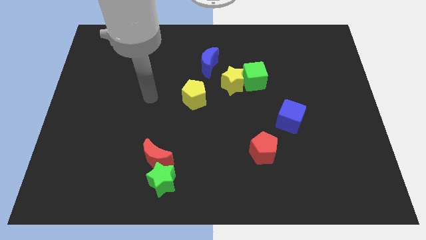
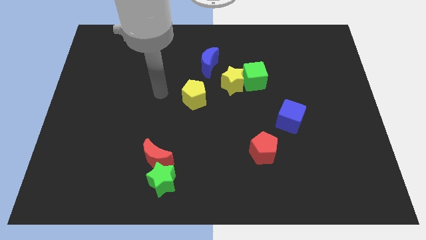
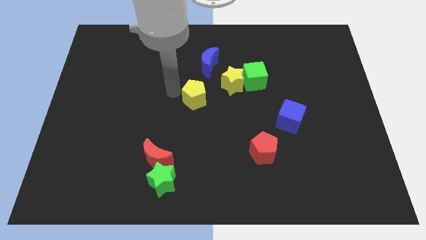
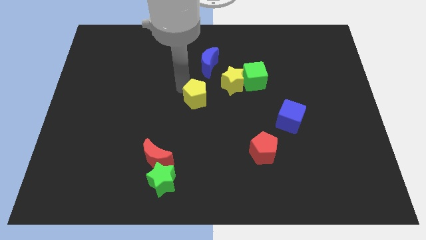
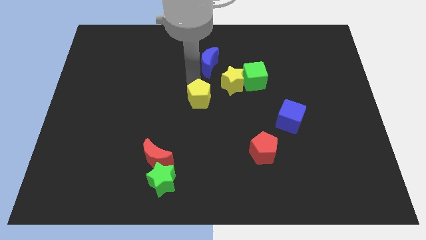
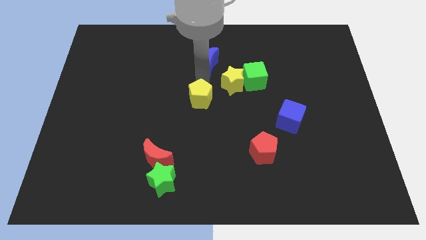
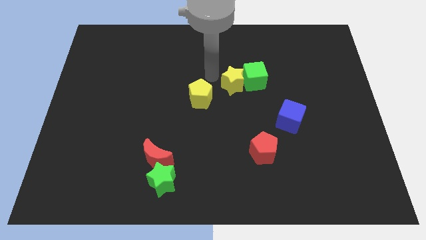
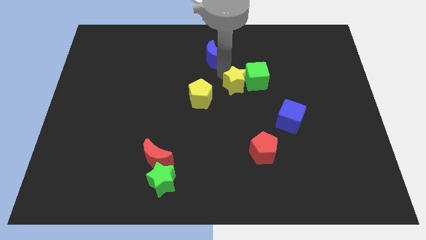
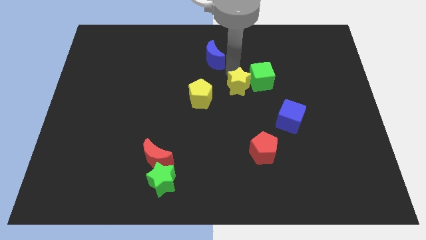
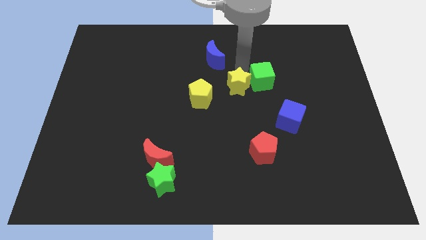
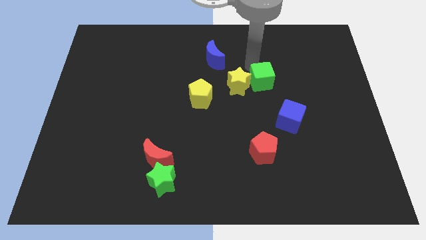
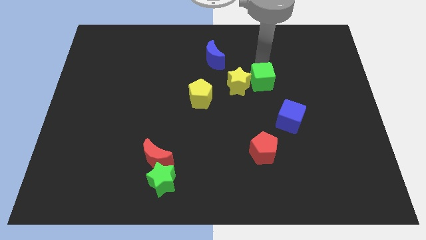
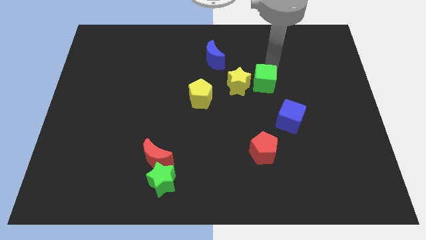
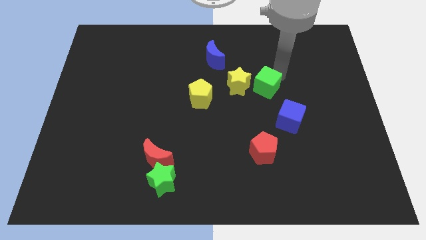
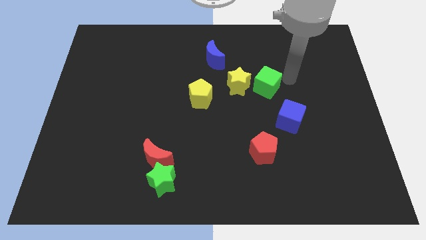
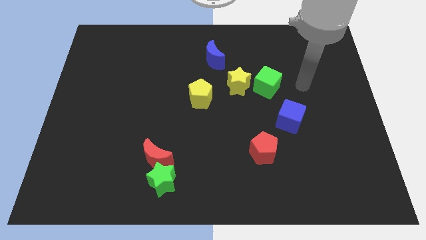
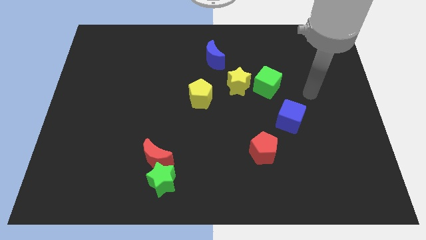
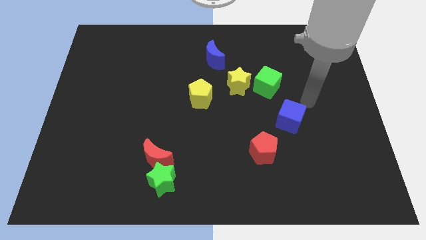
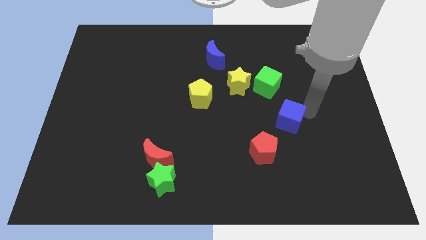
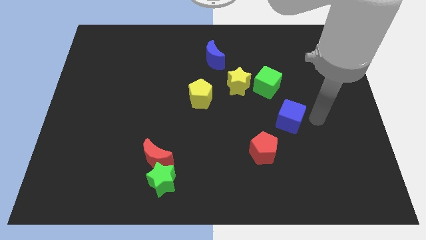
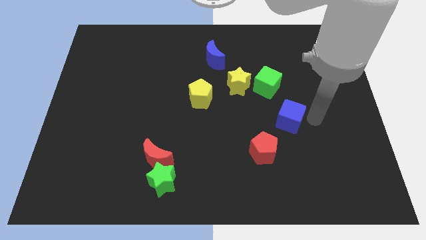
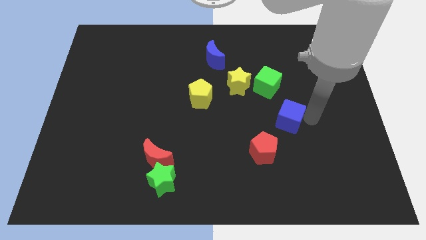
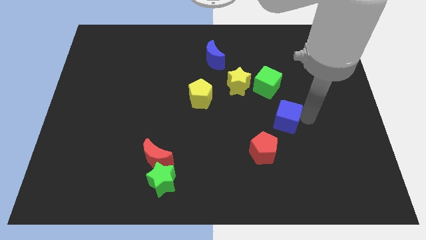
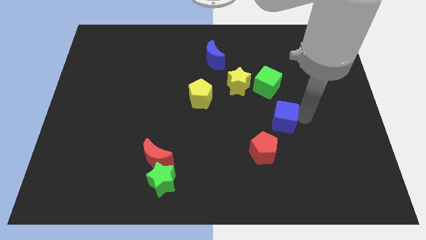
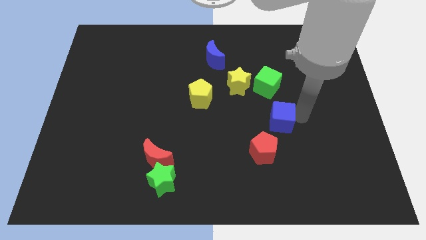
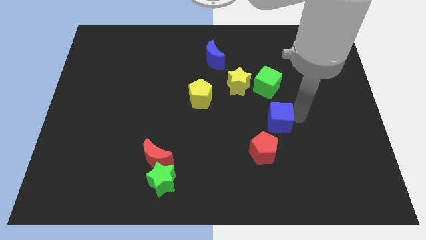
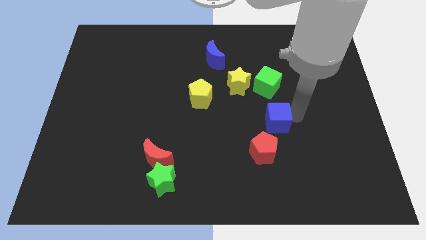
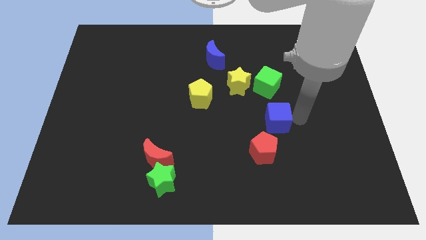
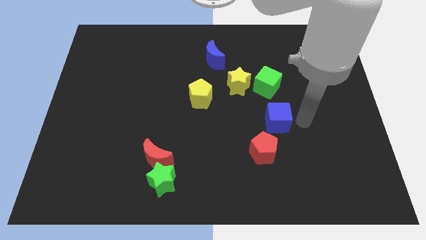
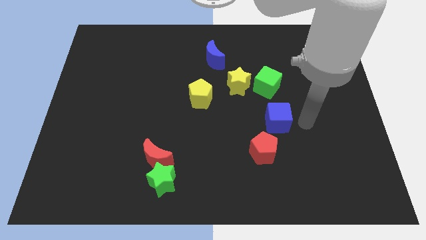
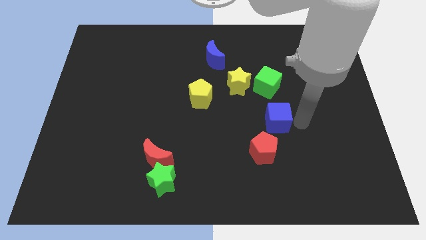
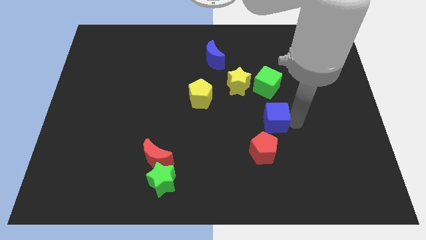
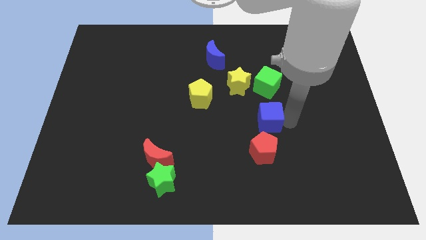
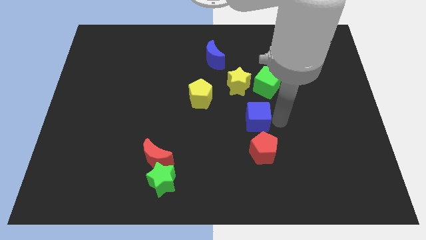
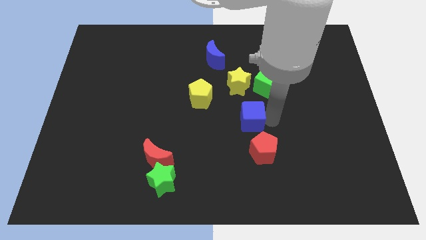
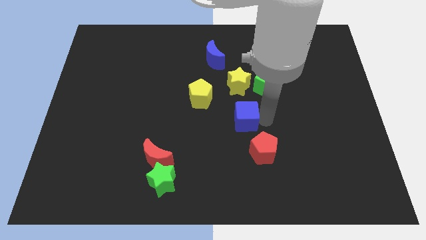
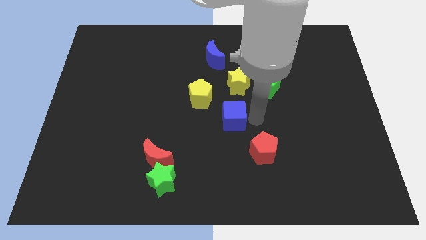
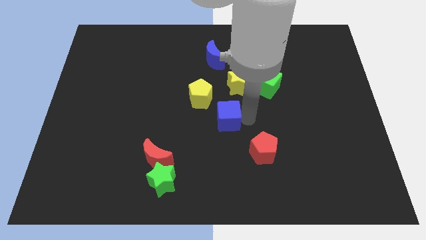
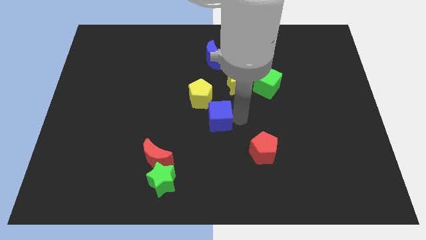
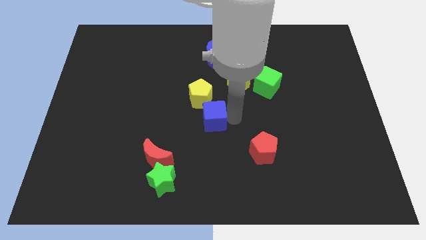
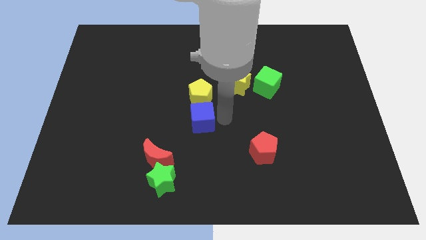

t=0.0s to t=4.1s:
move the blue cube left

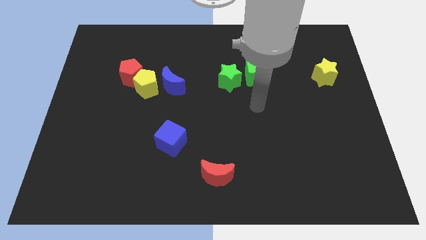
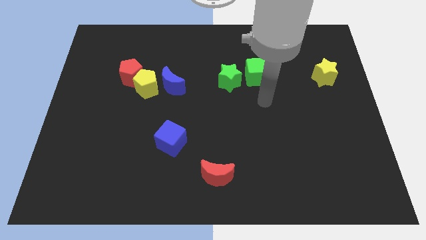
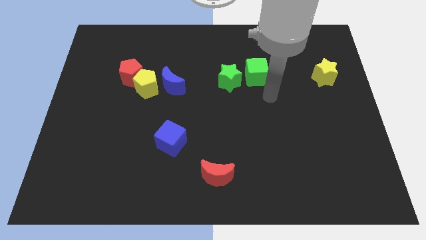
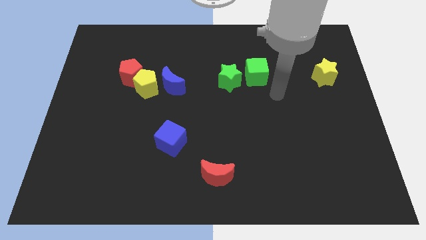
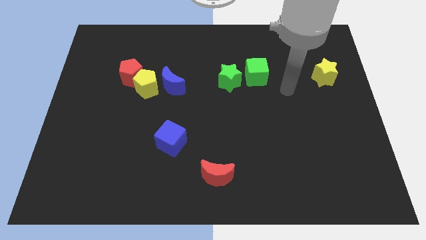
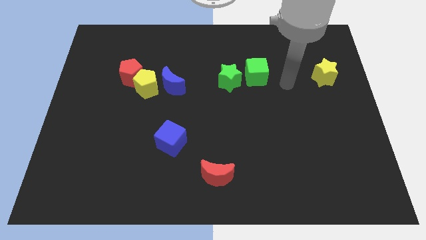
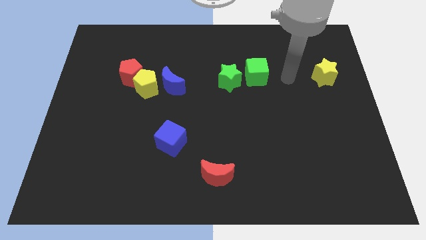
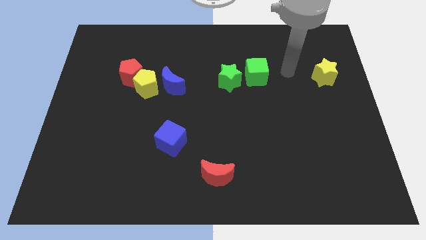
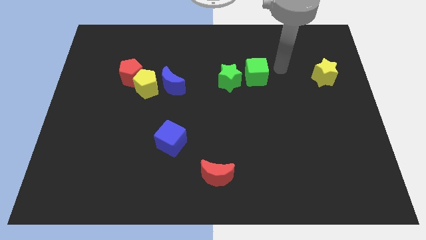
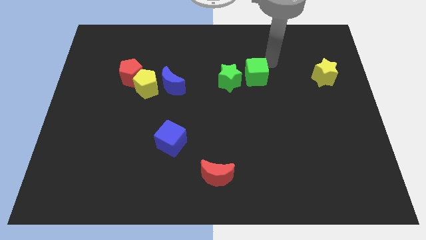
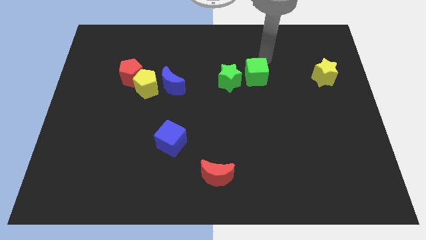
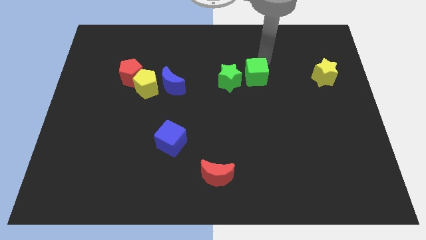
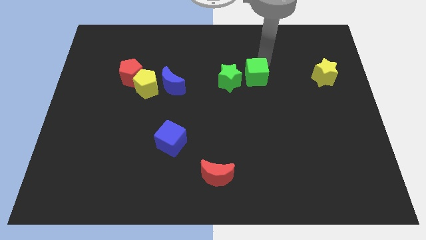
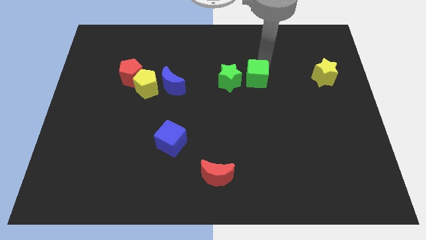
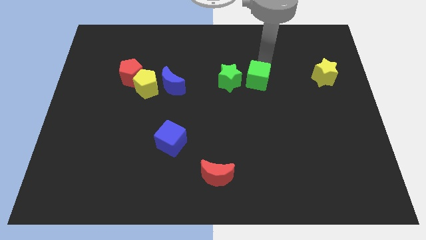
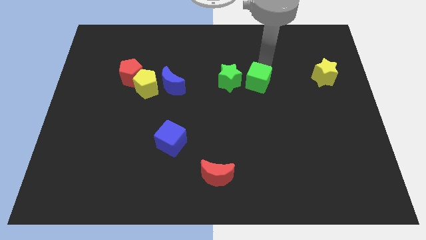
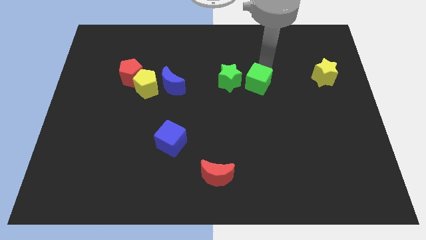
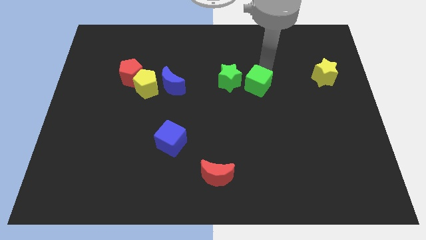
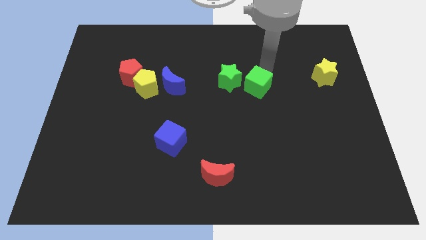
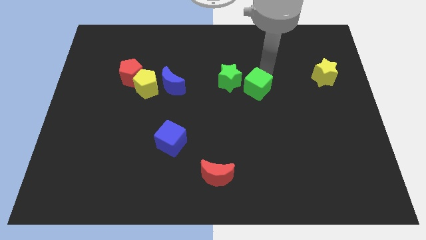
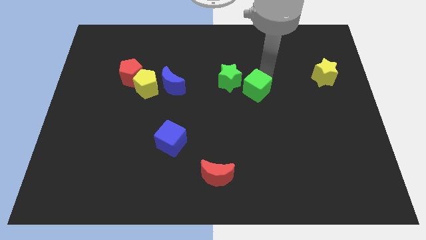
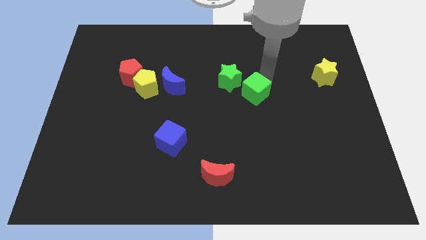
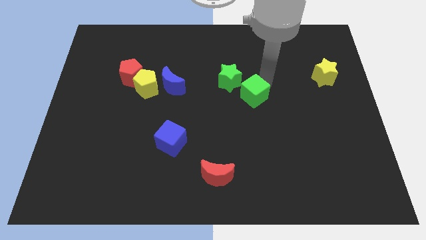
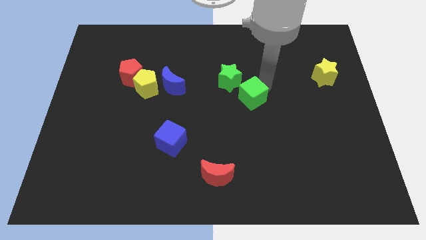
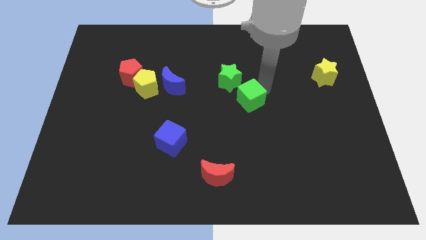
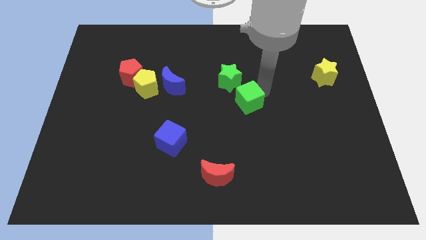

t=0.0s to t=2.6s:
slide the green cube a bit diagonally downwards and to the left

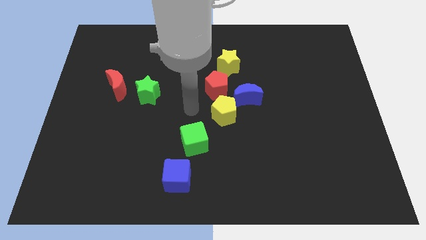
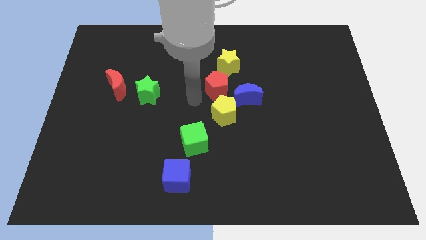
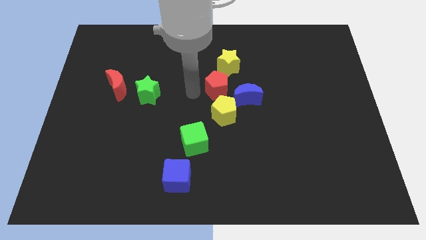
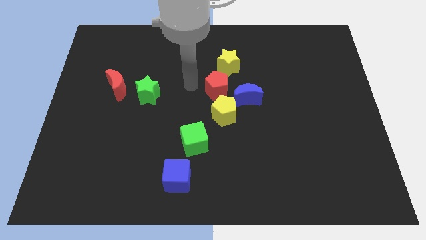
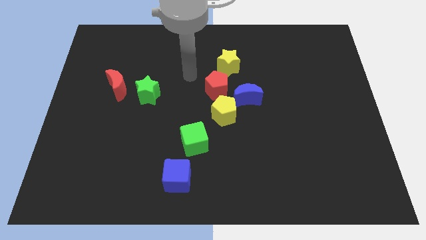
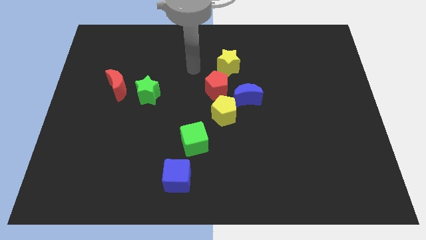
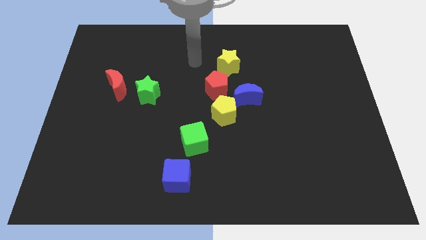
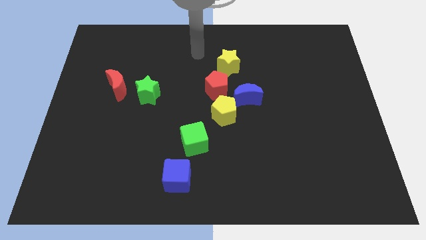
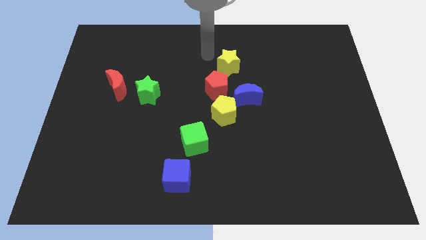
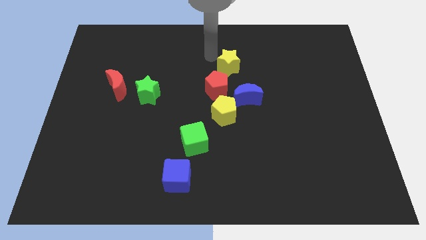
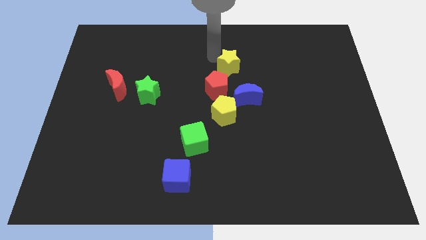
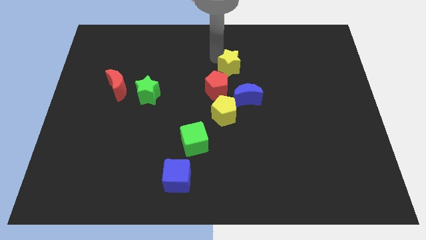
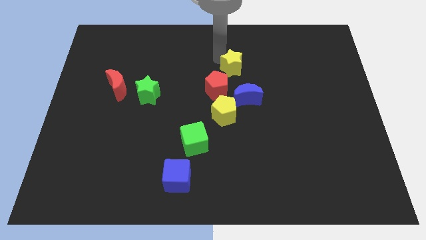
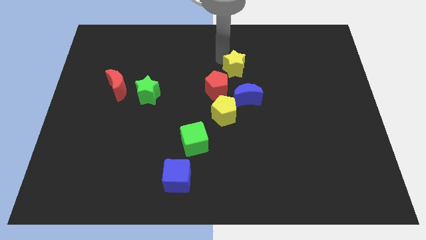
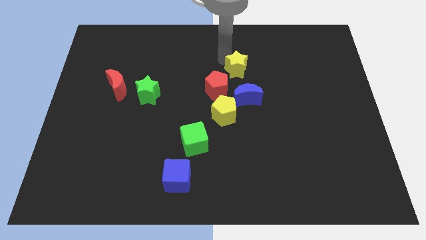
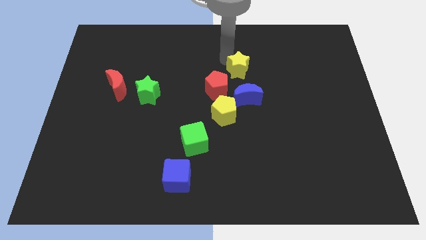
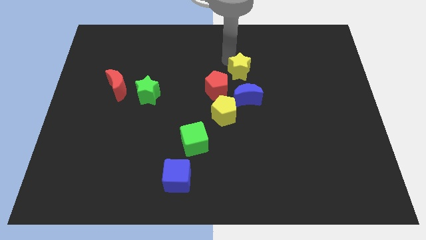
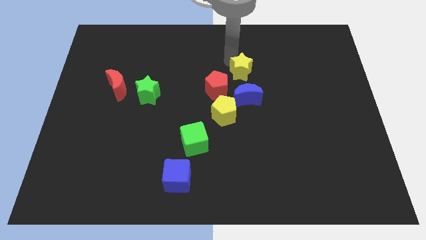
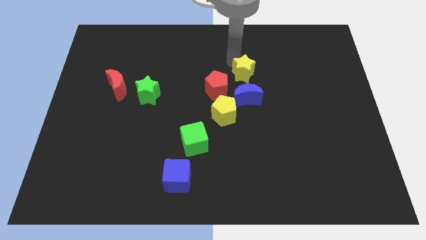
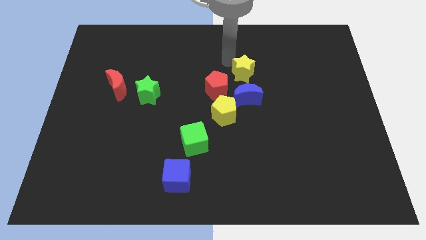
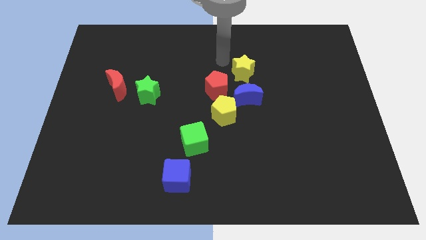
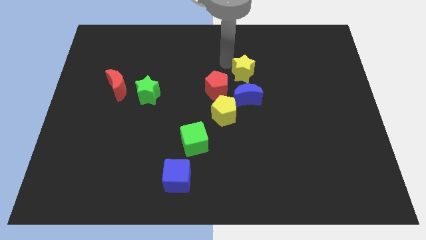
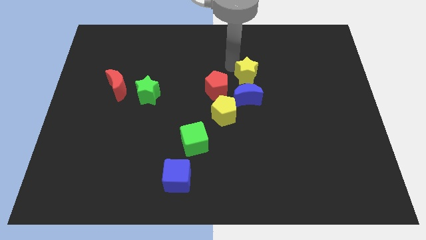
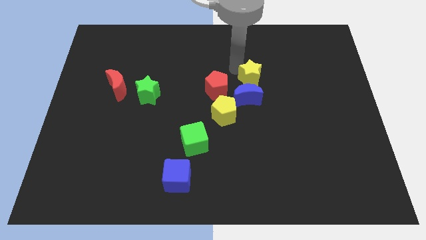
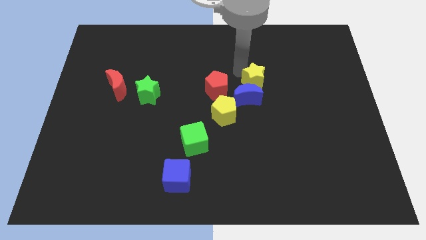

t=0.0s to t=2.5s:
move the yellow star downwards and to the right a bit
